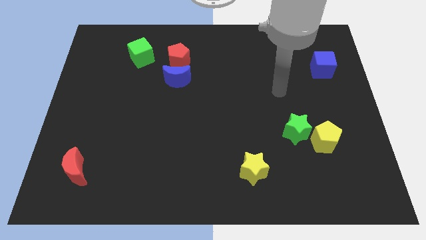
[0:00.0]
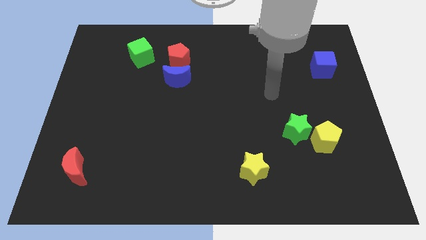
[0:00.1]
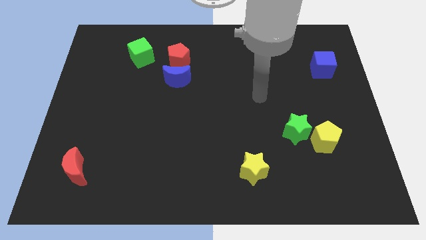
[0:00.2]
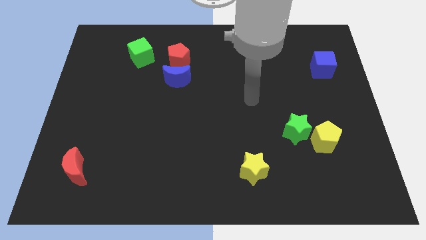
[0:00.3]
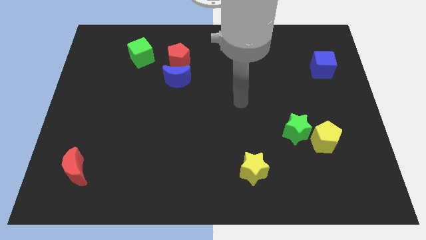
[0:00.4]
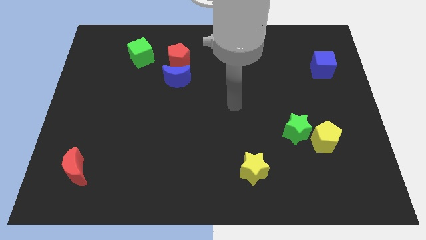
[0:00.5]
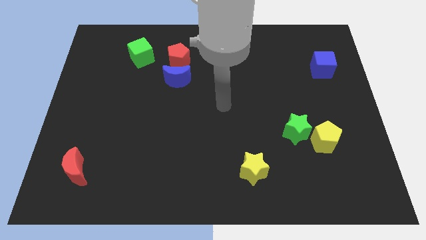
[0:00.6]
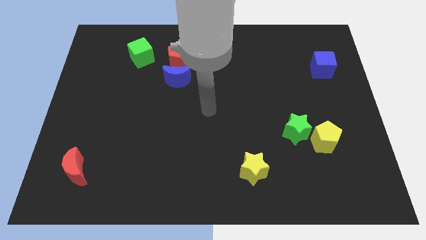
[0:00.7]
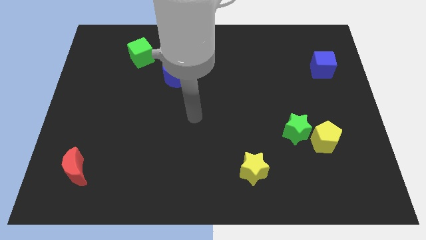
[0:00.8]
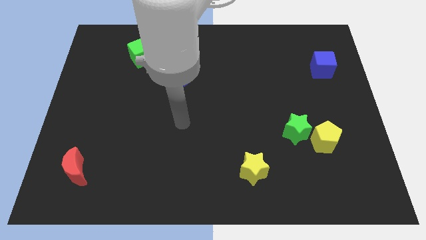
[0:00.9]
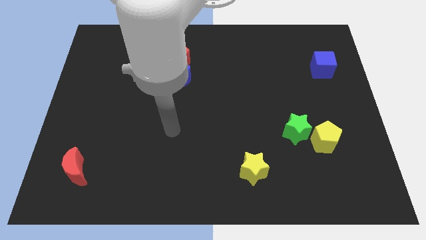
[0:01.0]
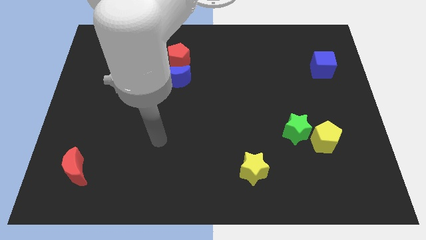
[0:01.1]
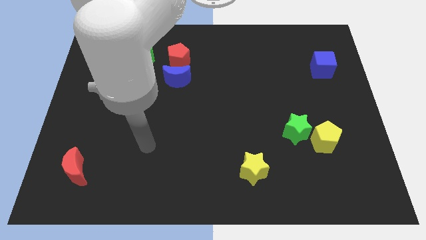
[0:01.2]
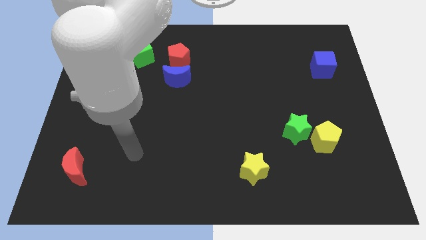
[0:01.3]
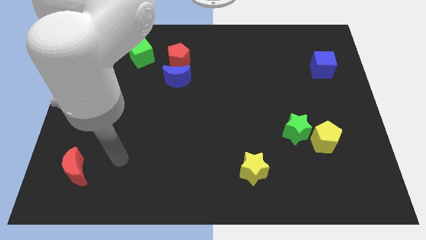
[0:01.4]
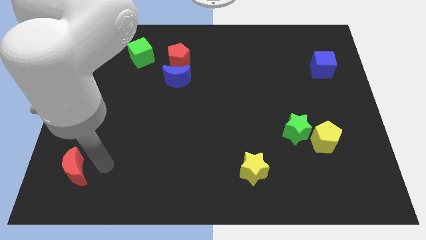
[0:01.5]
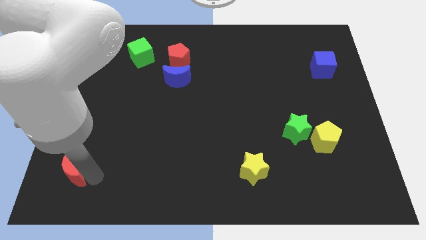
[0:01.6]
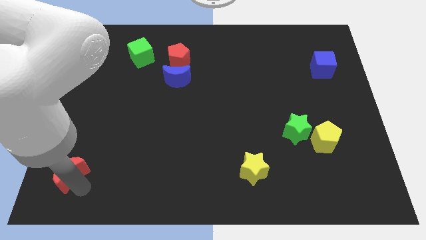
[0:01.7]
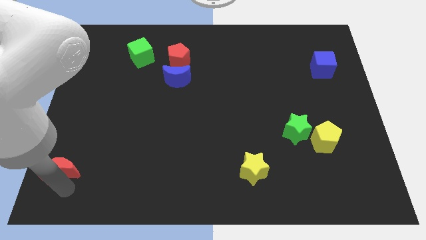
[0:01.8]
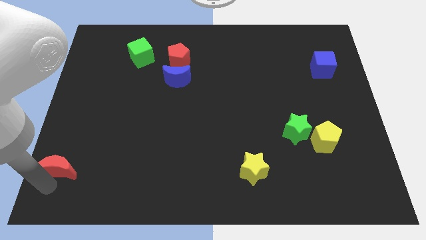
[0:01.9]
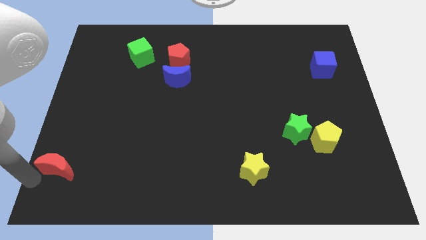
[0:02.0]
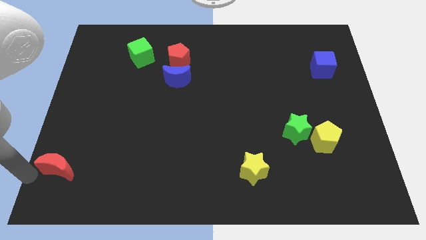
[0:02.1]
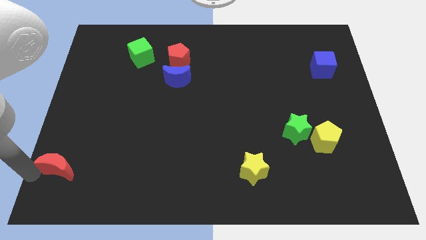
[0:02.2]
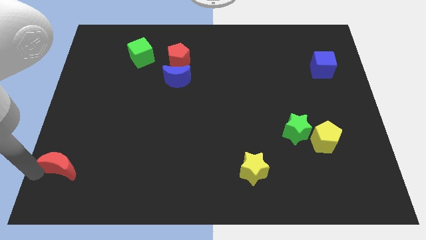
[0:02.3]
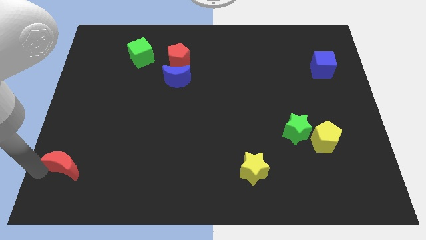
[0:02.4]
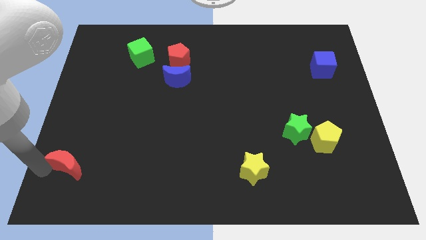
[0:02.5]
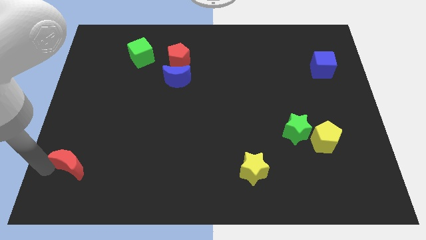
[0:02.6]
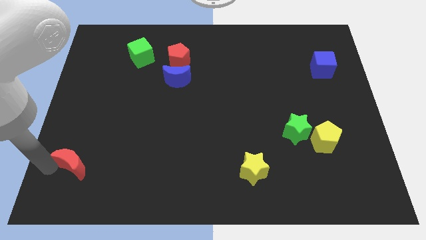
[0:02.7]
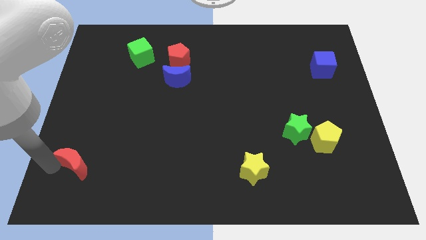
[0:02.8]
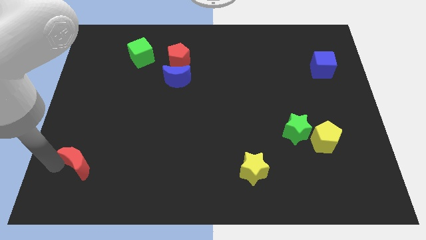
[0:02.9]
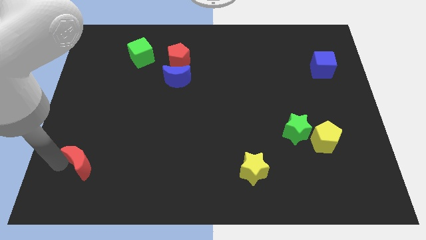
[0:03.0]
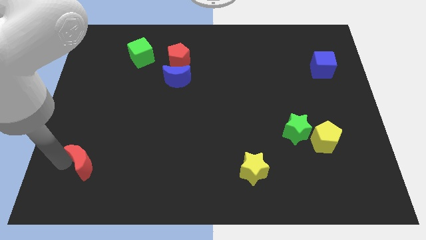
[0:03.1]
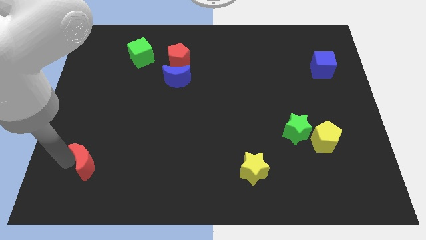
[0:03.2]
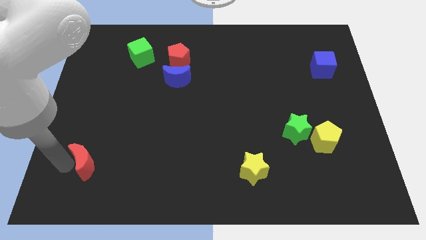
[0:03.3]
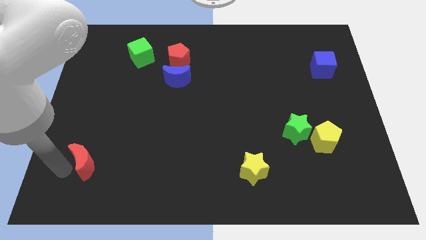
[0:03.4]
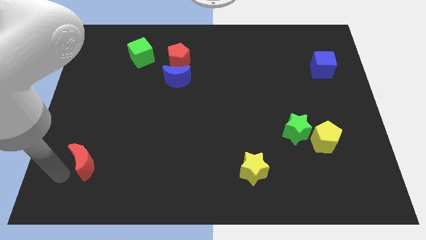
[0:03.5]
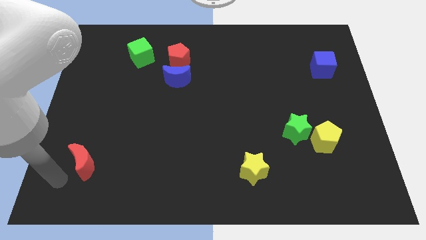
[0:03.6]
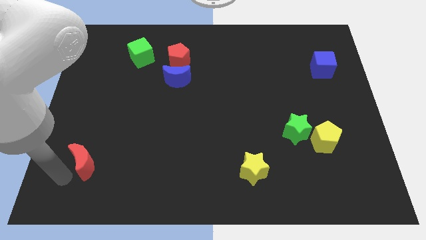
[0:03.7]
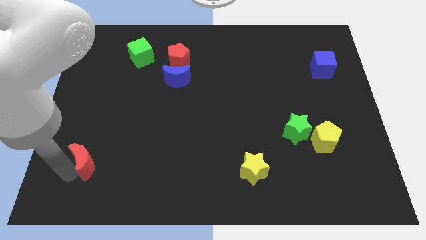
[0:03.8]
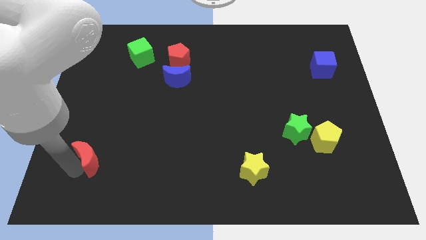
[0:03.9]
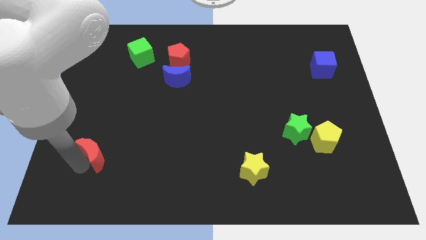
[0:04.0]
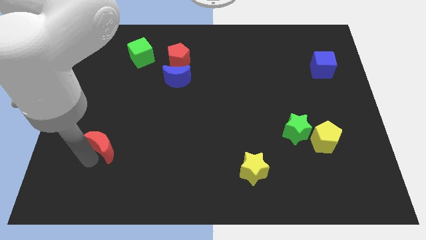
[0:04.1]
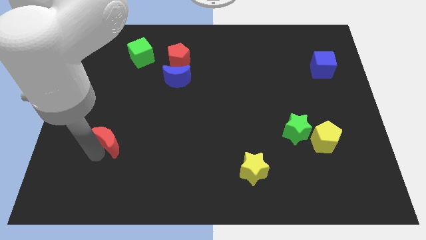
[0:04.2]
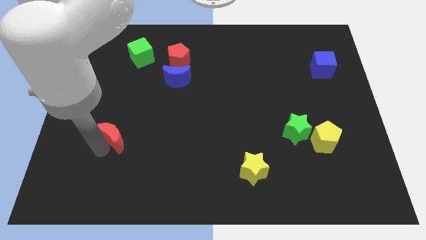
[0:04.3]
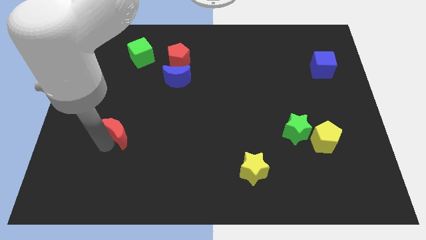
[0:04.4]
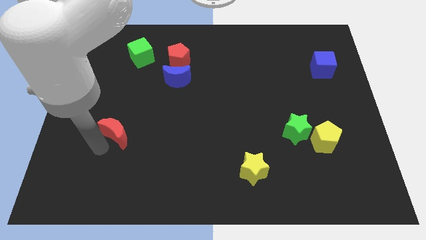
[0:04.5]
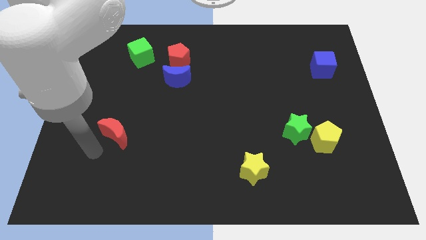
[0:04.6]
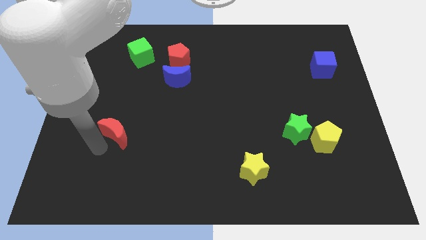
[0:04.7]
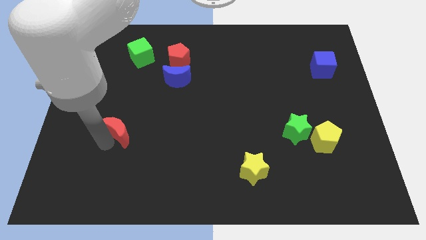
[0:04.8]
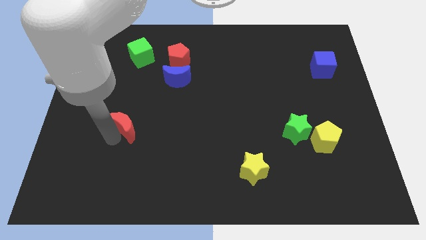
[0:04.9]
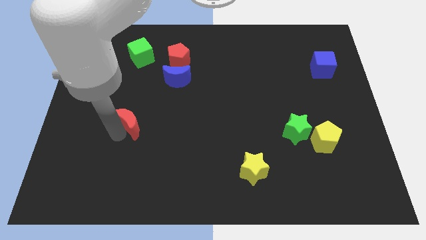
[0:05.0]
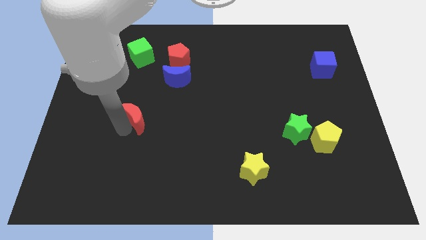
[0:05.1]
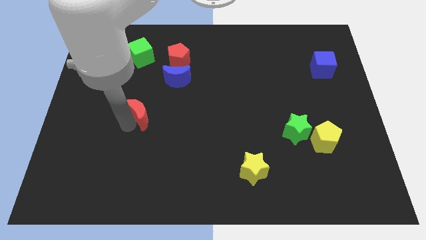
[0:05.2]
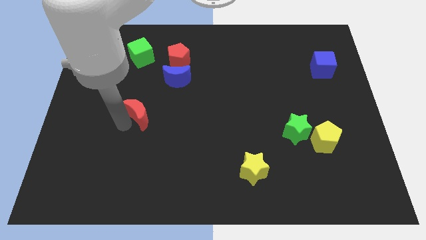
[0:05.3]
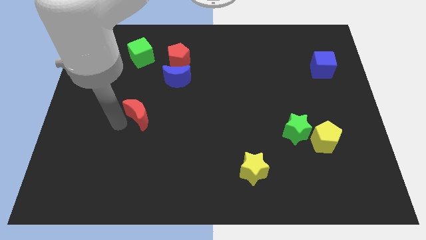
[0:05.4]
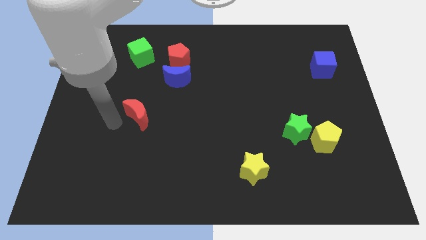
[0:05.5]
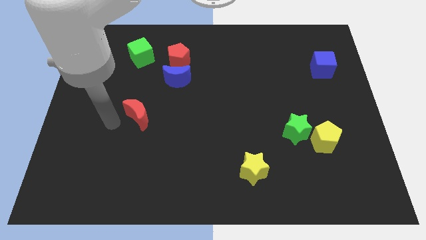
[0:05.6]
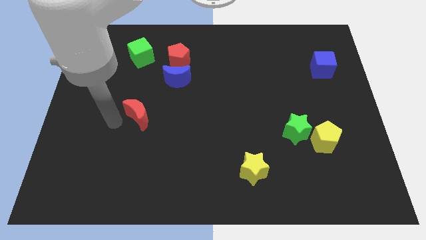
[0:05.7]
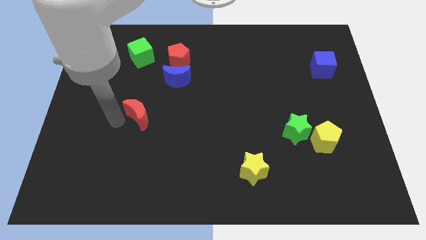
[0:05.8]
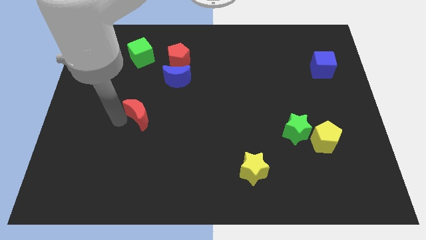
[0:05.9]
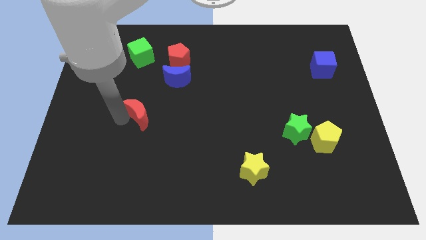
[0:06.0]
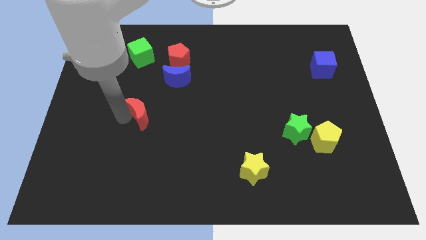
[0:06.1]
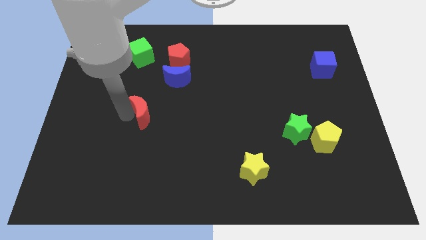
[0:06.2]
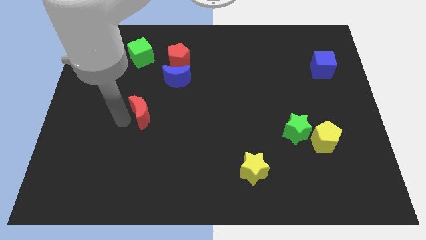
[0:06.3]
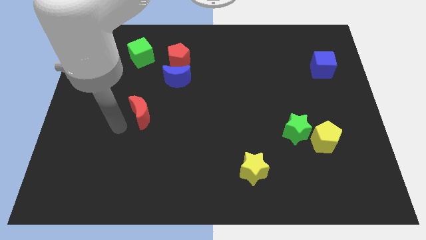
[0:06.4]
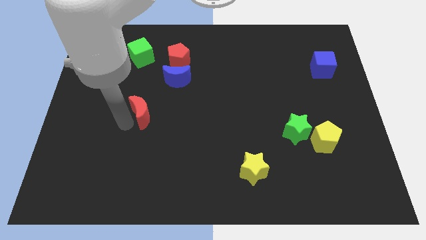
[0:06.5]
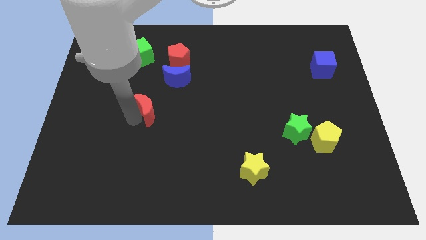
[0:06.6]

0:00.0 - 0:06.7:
move the red moon upwards and right

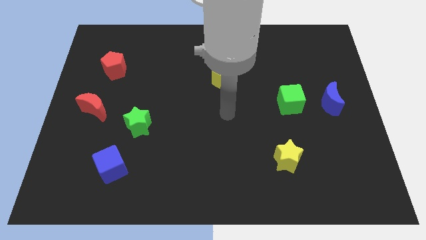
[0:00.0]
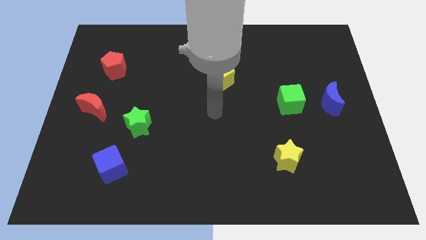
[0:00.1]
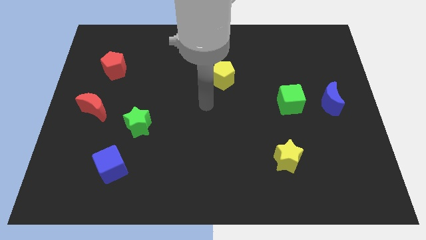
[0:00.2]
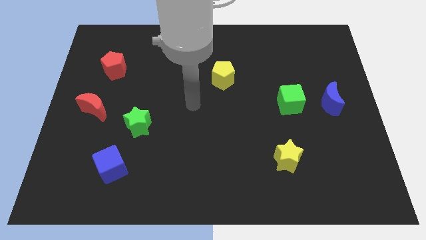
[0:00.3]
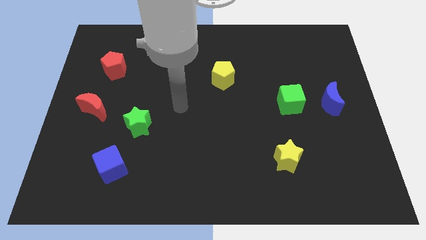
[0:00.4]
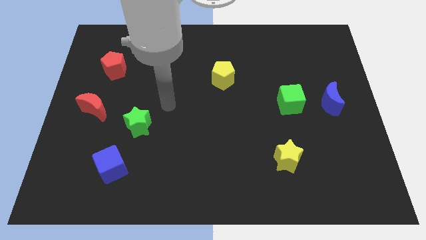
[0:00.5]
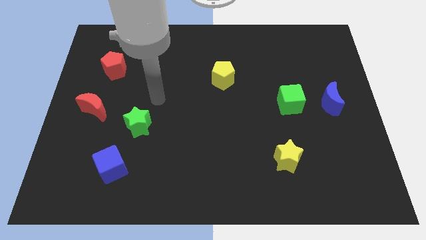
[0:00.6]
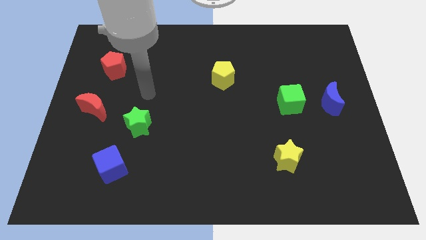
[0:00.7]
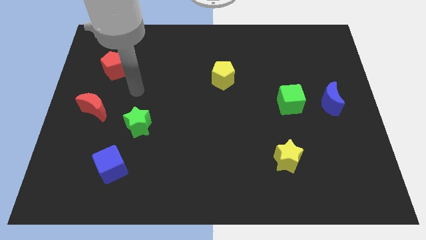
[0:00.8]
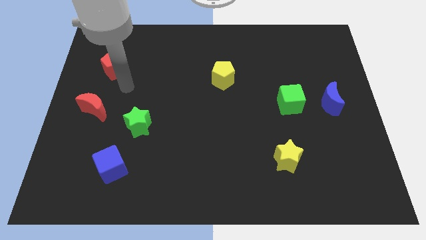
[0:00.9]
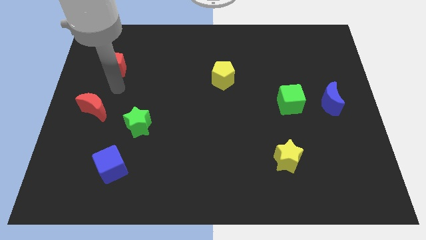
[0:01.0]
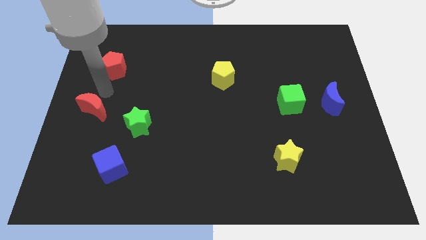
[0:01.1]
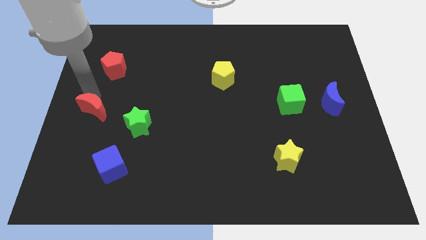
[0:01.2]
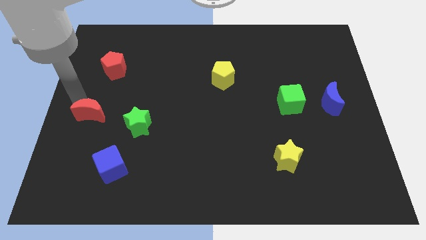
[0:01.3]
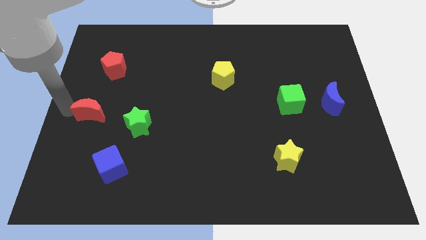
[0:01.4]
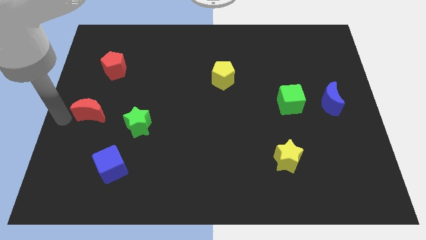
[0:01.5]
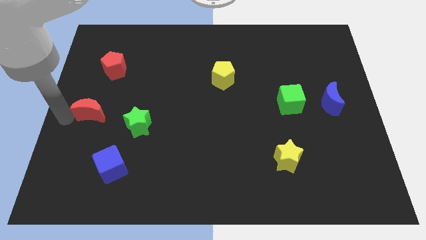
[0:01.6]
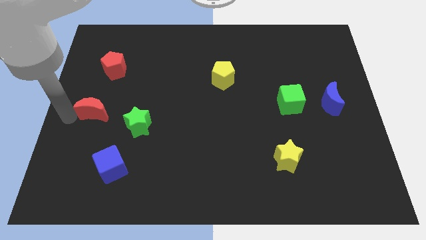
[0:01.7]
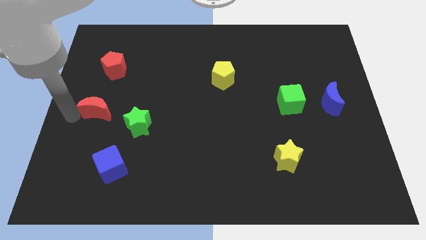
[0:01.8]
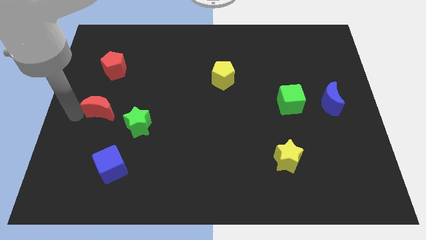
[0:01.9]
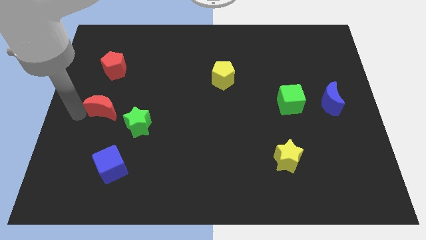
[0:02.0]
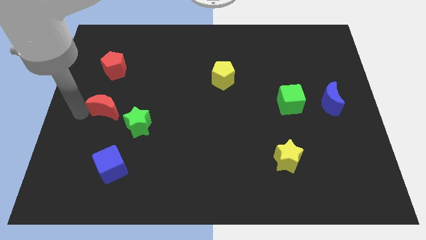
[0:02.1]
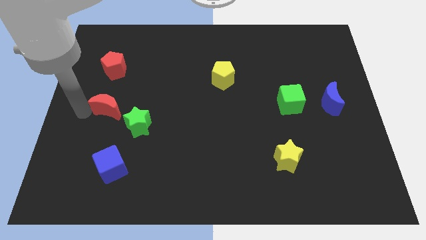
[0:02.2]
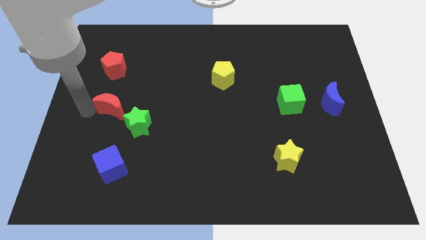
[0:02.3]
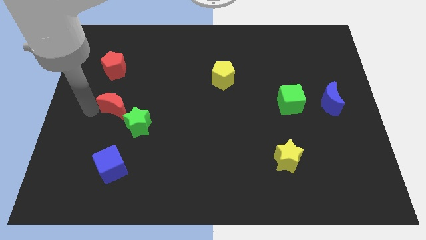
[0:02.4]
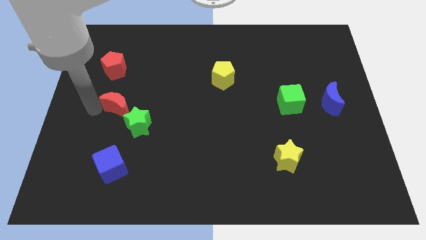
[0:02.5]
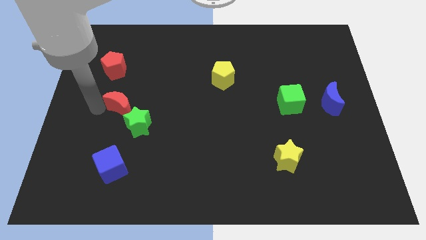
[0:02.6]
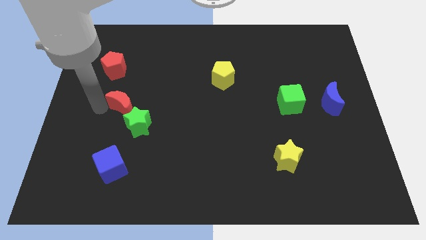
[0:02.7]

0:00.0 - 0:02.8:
push the red moon right a little bit
